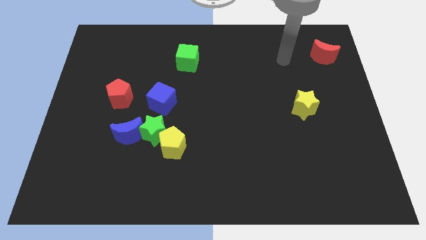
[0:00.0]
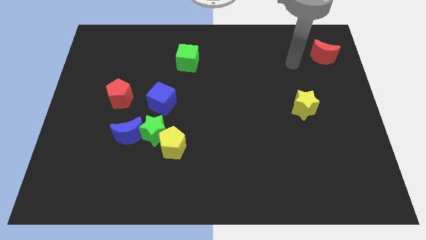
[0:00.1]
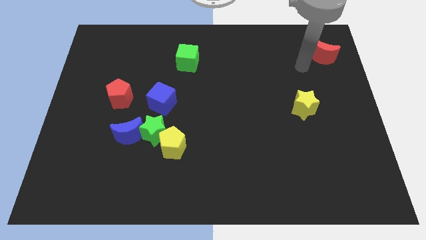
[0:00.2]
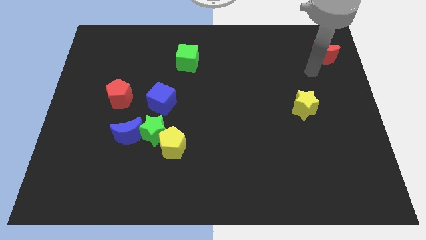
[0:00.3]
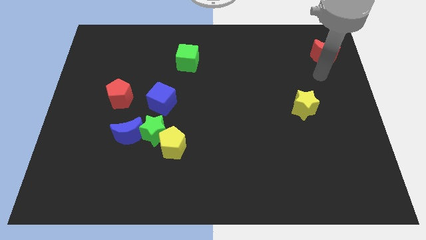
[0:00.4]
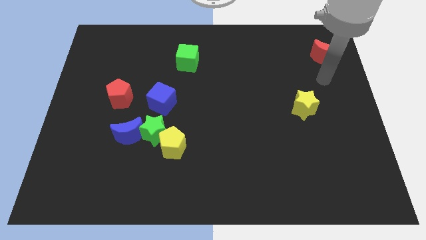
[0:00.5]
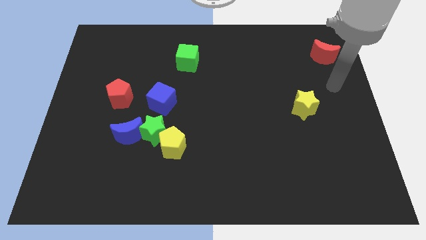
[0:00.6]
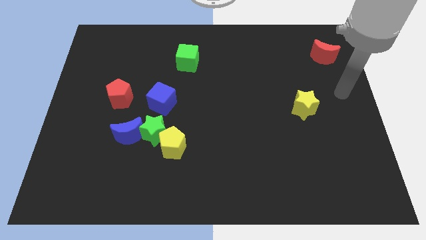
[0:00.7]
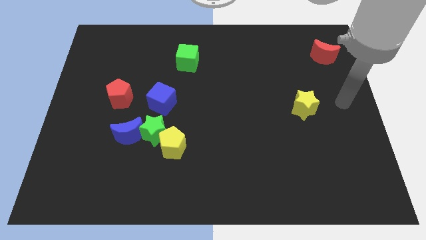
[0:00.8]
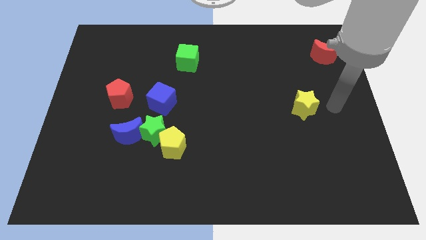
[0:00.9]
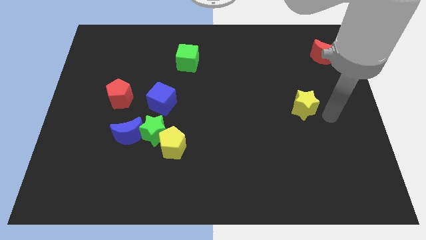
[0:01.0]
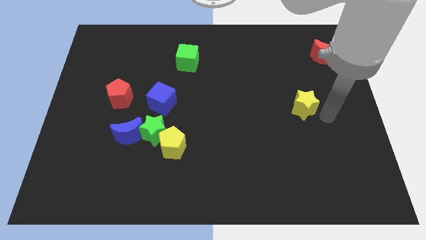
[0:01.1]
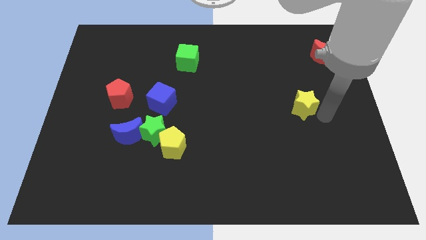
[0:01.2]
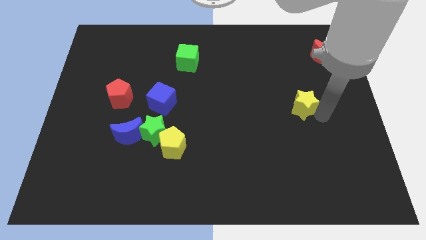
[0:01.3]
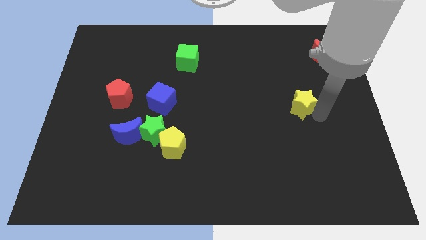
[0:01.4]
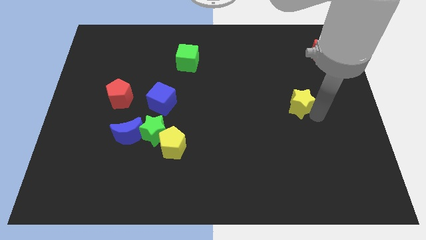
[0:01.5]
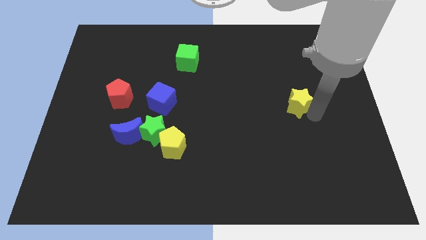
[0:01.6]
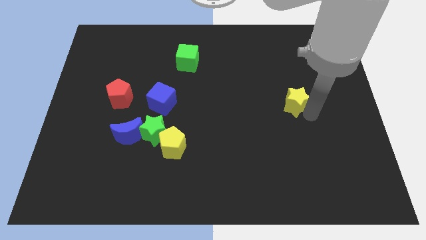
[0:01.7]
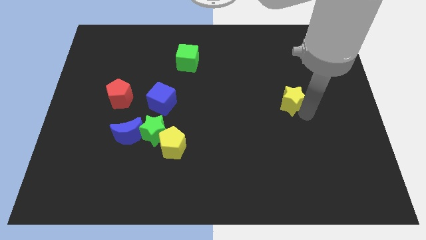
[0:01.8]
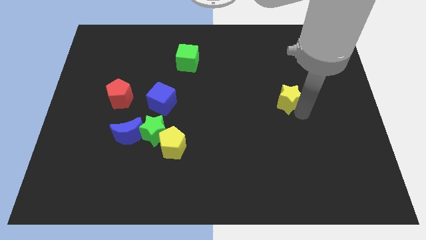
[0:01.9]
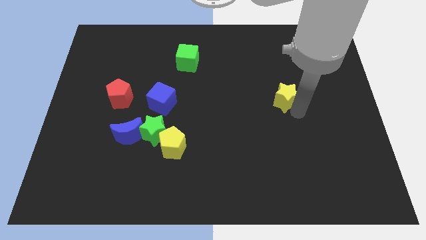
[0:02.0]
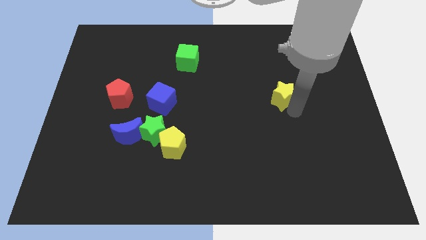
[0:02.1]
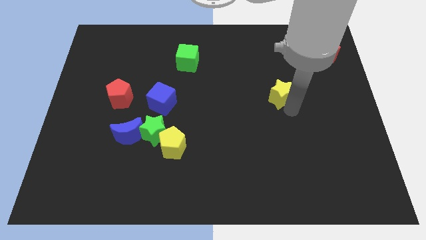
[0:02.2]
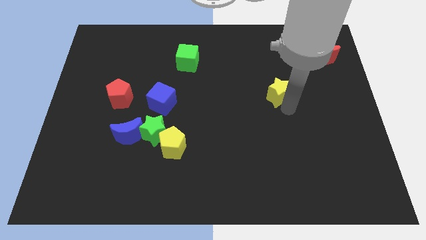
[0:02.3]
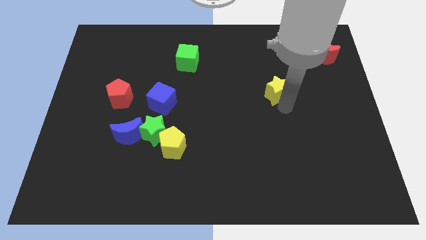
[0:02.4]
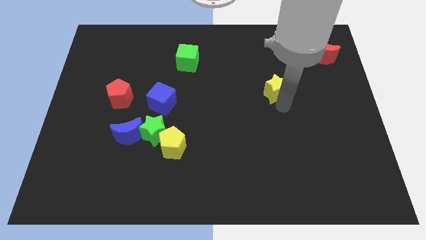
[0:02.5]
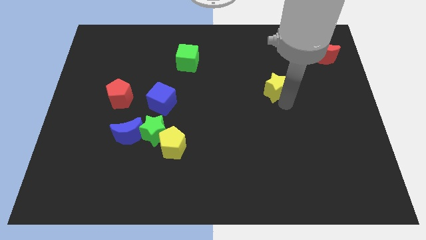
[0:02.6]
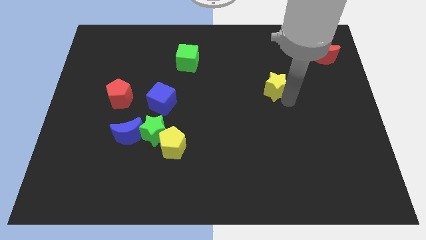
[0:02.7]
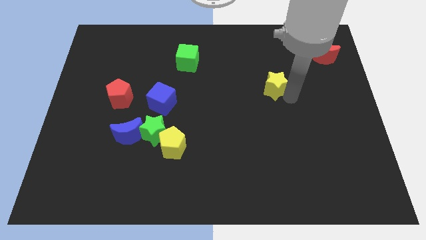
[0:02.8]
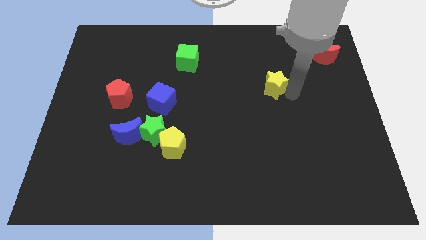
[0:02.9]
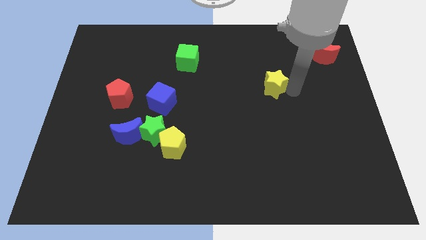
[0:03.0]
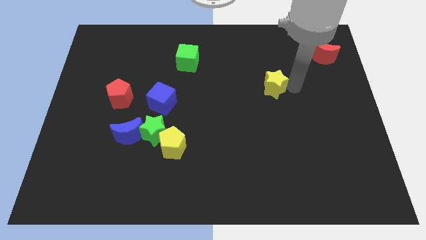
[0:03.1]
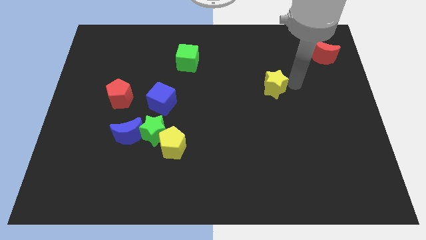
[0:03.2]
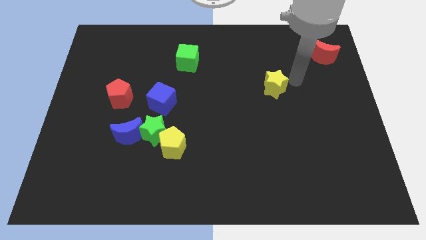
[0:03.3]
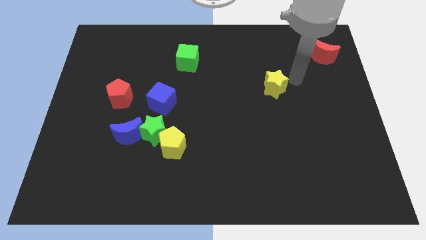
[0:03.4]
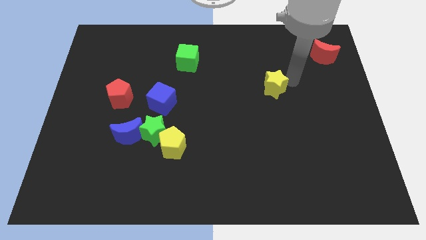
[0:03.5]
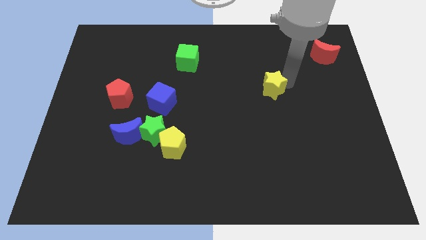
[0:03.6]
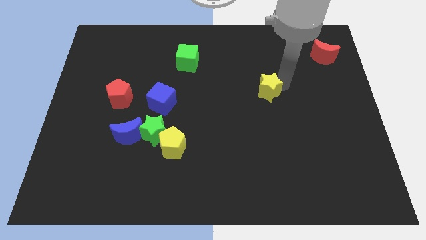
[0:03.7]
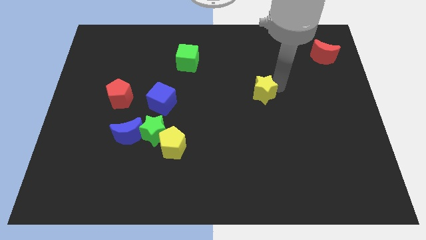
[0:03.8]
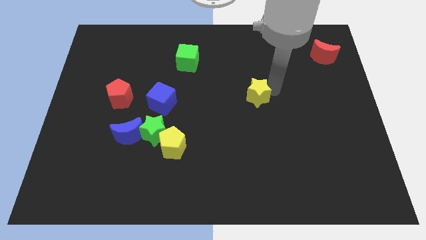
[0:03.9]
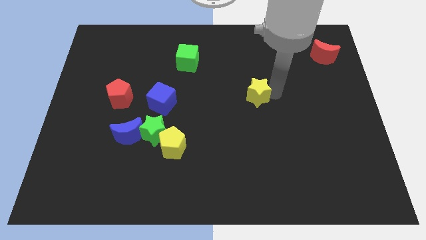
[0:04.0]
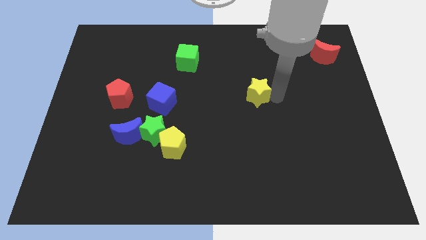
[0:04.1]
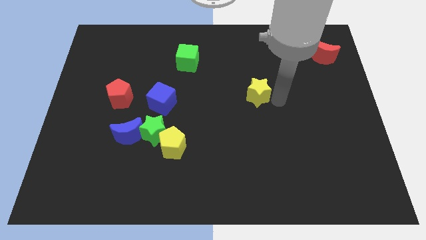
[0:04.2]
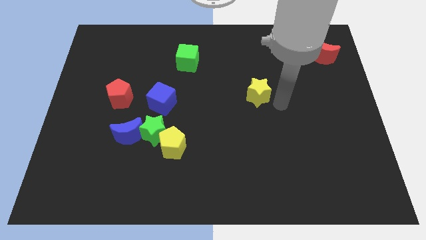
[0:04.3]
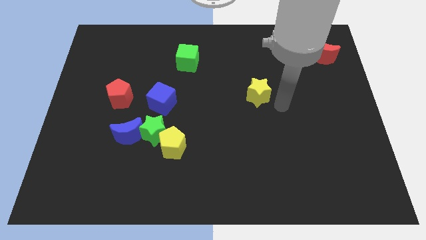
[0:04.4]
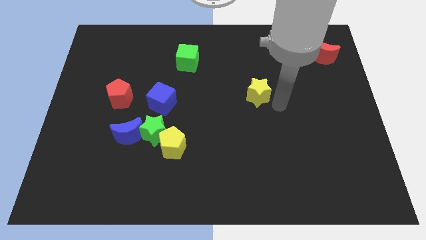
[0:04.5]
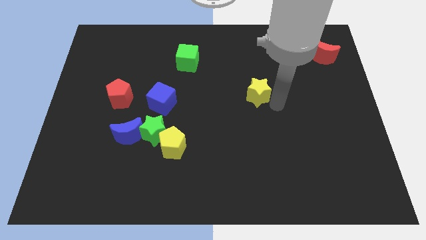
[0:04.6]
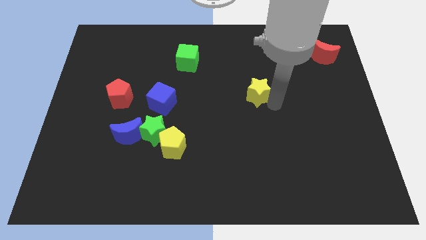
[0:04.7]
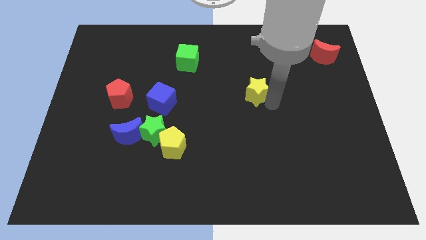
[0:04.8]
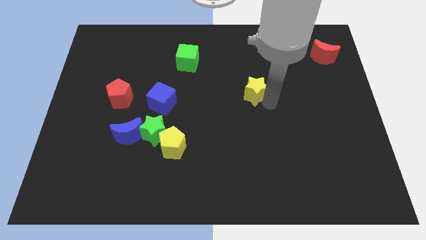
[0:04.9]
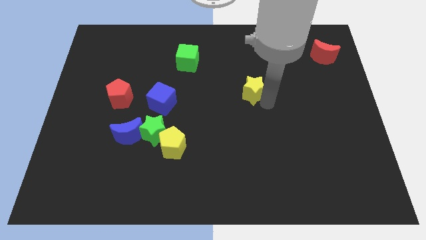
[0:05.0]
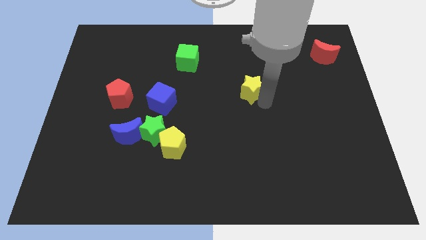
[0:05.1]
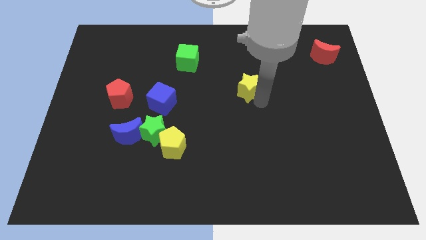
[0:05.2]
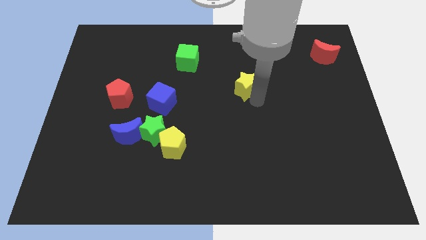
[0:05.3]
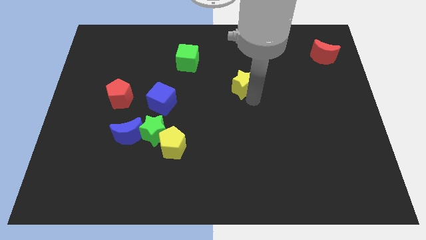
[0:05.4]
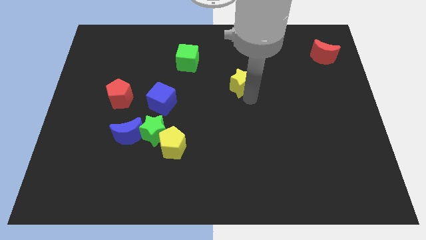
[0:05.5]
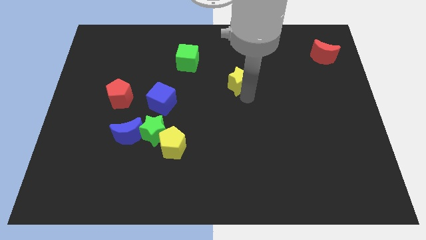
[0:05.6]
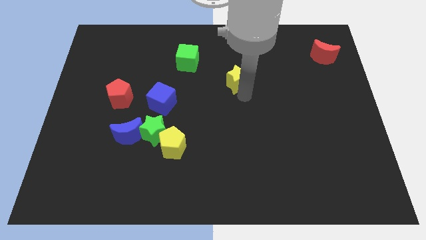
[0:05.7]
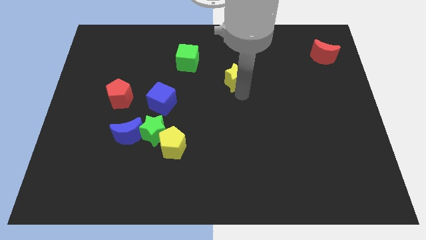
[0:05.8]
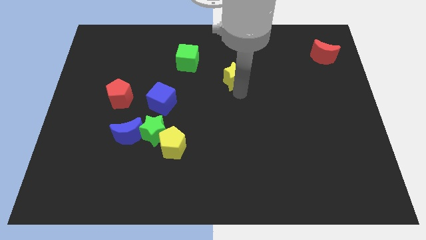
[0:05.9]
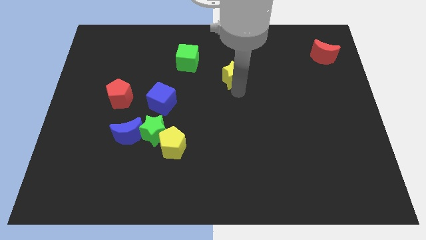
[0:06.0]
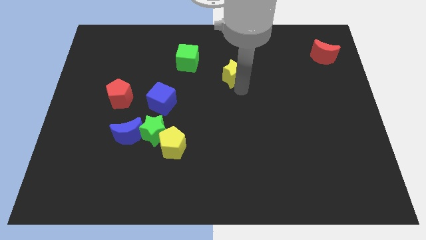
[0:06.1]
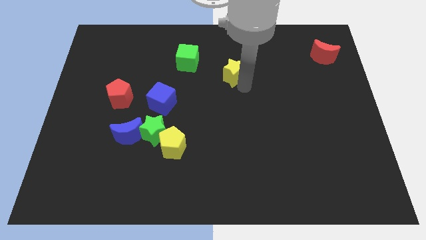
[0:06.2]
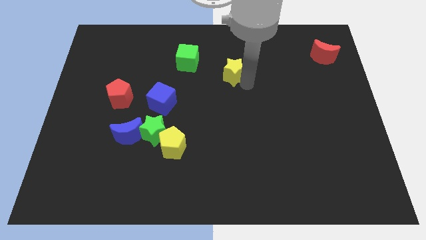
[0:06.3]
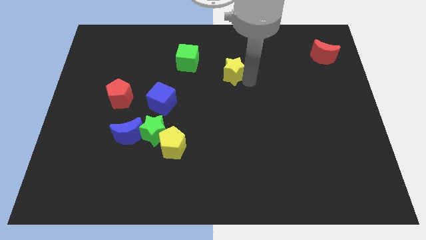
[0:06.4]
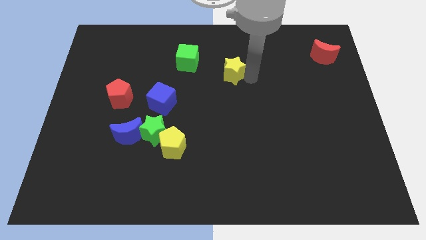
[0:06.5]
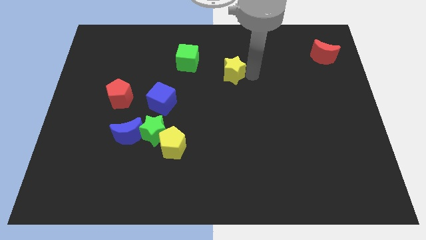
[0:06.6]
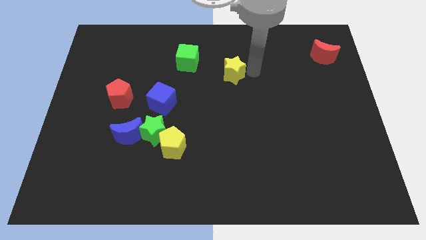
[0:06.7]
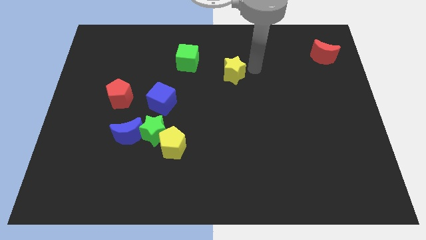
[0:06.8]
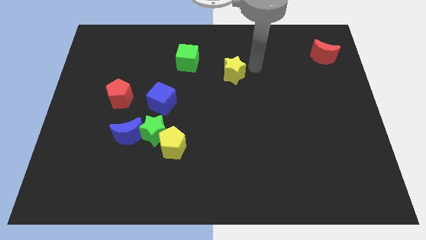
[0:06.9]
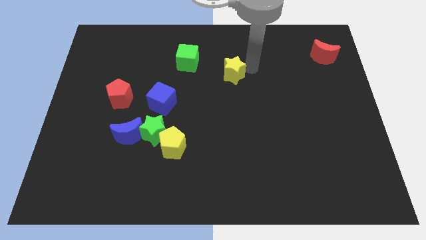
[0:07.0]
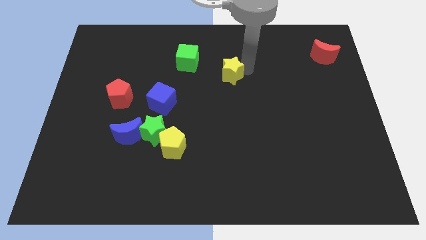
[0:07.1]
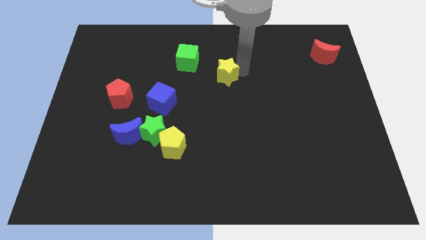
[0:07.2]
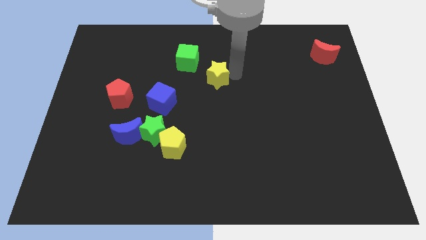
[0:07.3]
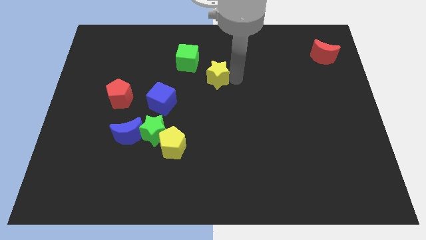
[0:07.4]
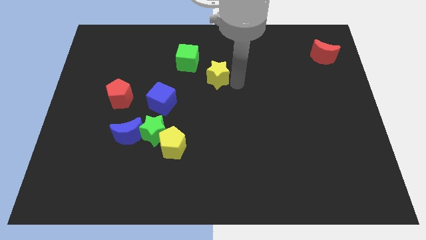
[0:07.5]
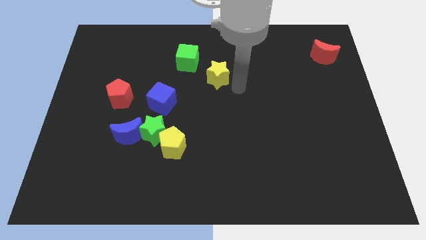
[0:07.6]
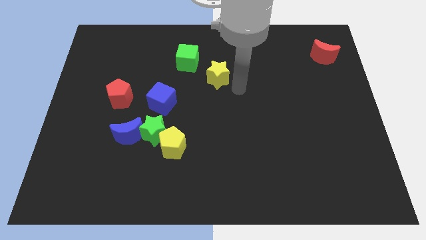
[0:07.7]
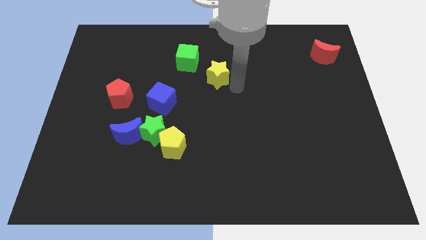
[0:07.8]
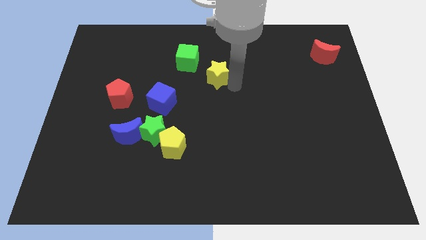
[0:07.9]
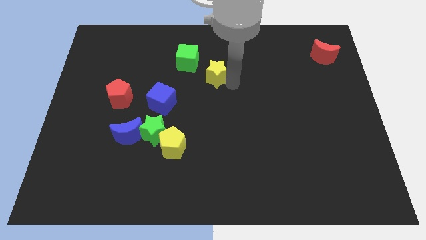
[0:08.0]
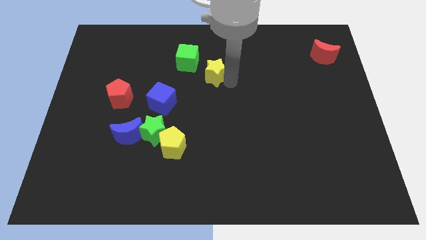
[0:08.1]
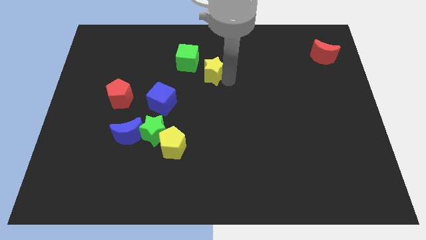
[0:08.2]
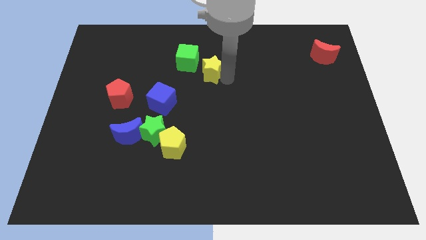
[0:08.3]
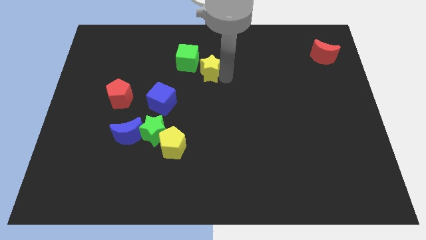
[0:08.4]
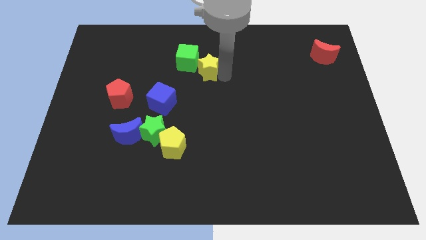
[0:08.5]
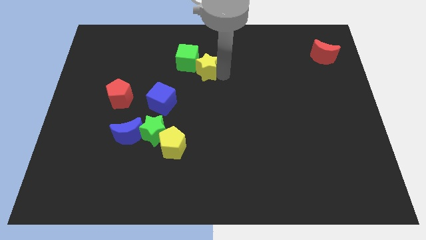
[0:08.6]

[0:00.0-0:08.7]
push the yellow star close to the green cube
